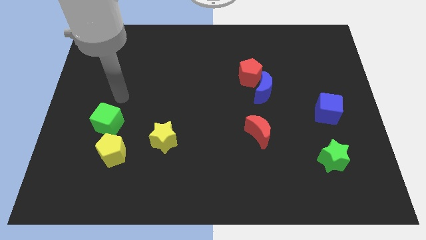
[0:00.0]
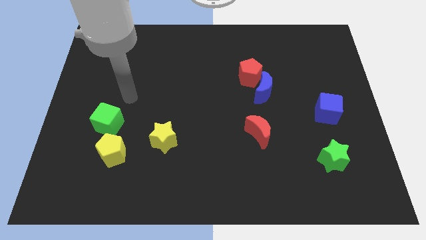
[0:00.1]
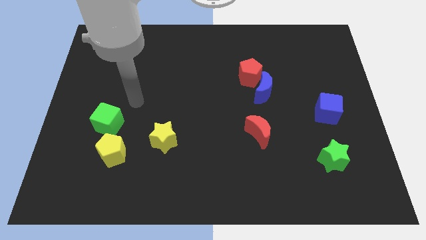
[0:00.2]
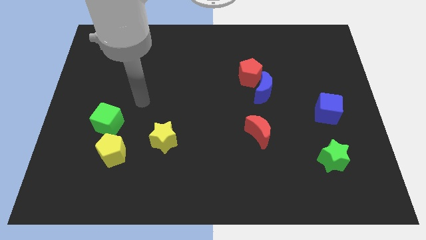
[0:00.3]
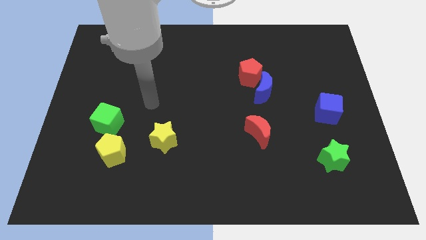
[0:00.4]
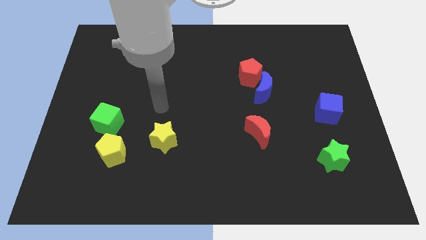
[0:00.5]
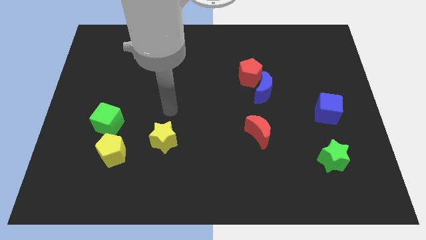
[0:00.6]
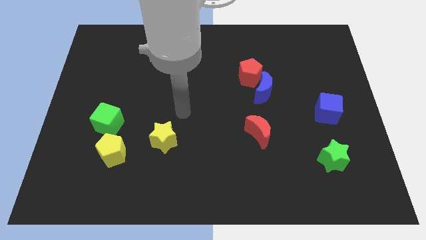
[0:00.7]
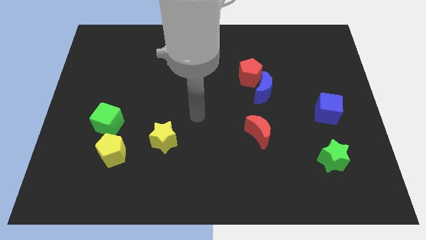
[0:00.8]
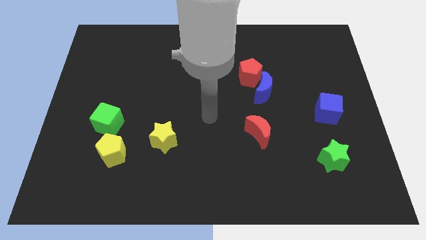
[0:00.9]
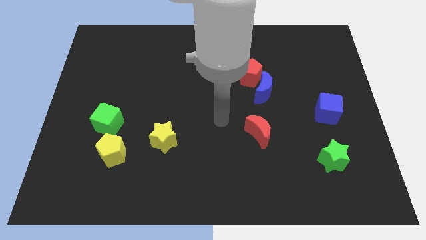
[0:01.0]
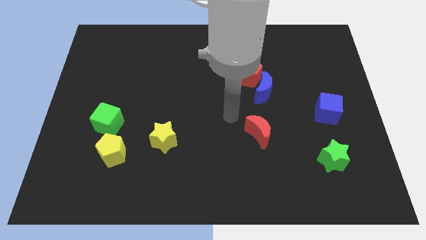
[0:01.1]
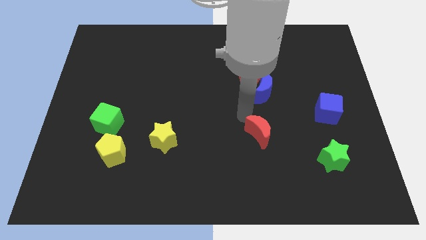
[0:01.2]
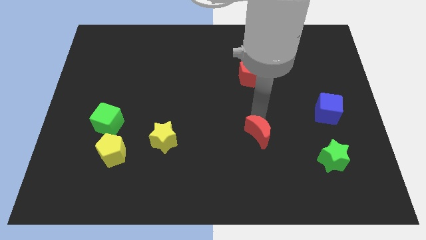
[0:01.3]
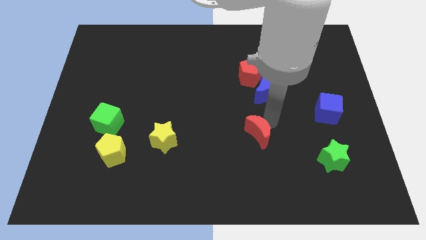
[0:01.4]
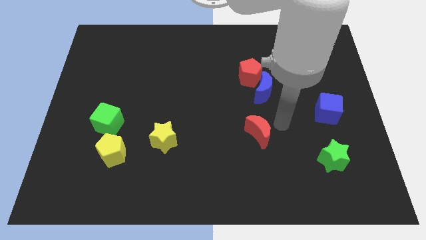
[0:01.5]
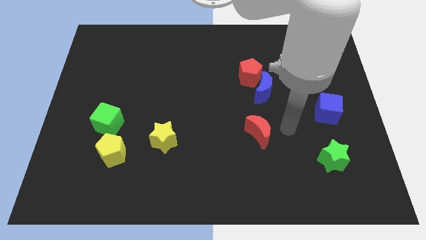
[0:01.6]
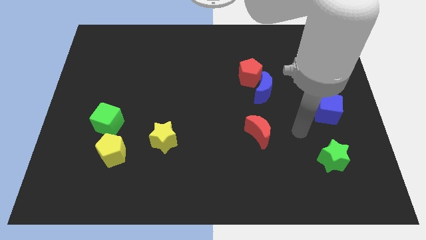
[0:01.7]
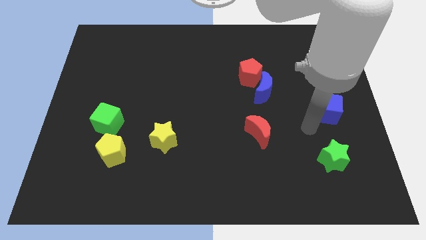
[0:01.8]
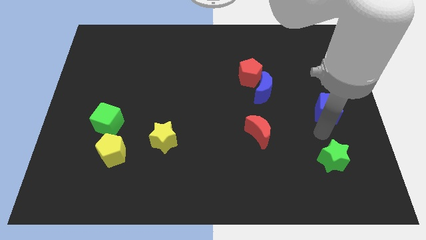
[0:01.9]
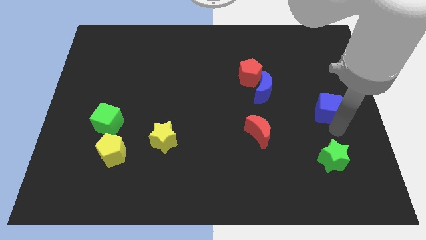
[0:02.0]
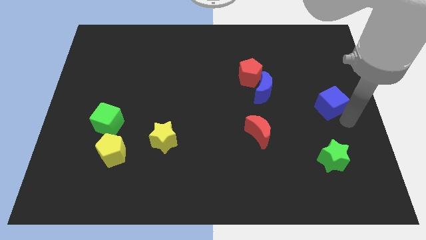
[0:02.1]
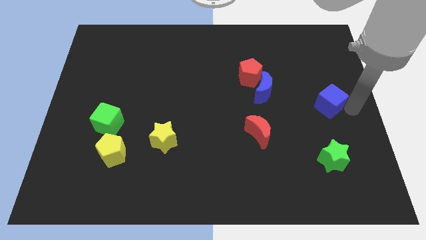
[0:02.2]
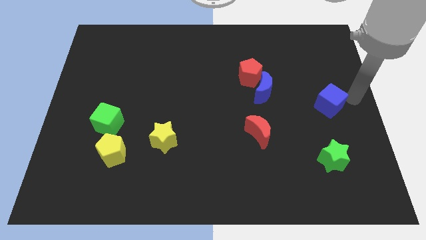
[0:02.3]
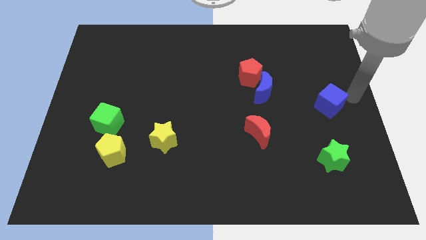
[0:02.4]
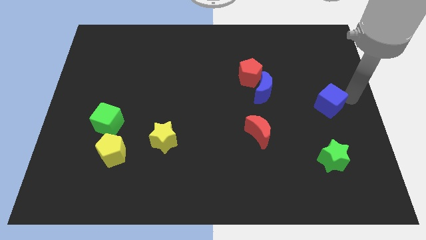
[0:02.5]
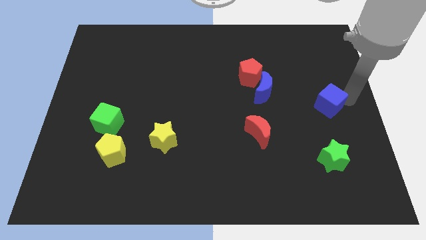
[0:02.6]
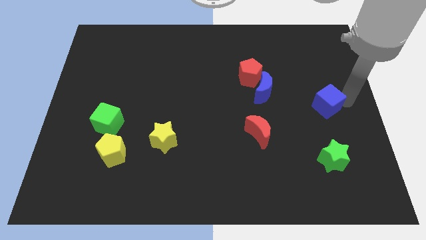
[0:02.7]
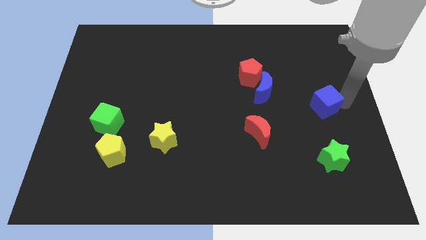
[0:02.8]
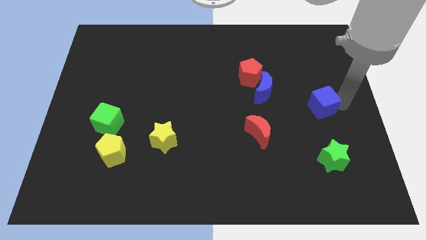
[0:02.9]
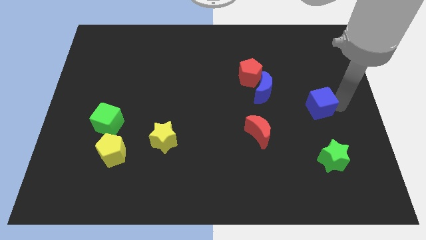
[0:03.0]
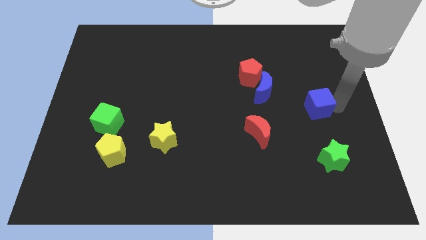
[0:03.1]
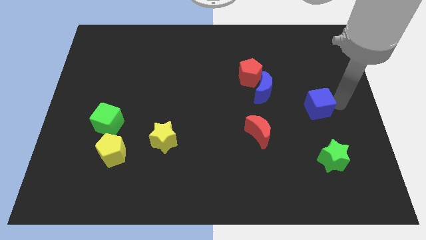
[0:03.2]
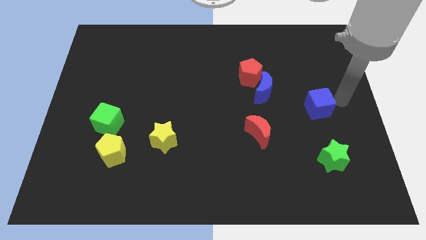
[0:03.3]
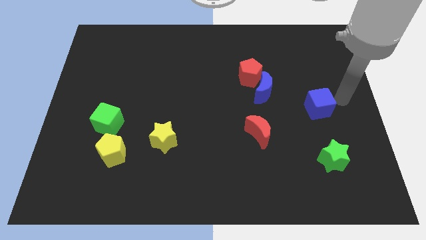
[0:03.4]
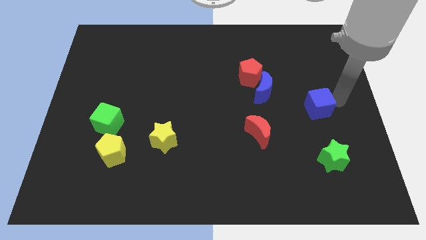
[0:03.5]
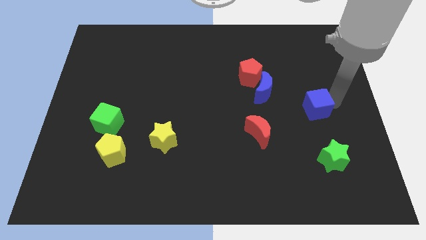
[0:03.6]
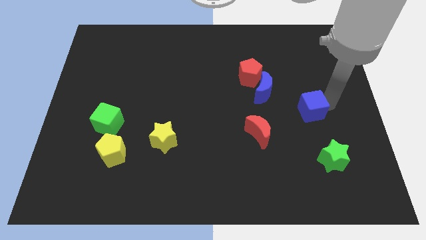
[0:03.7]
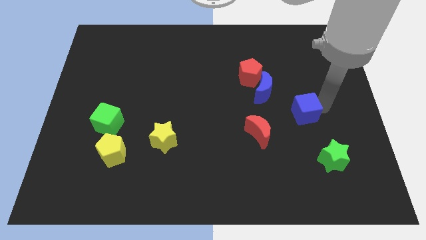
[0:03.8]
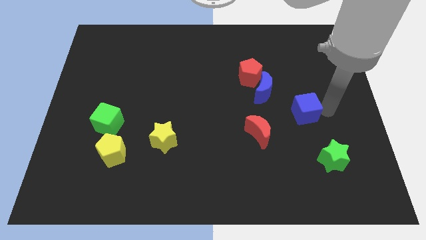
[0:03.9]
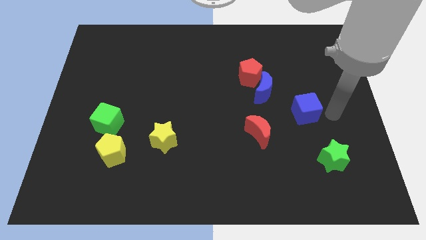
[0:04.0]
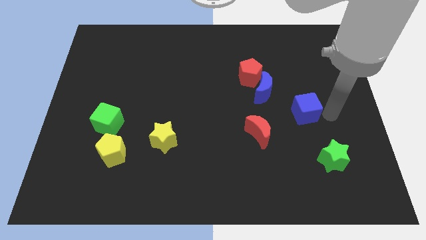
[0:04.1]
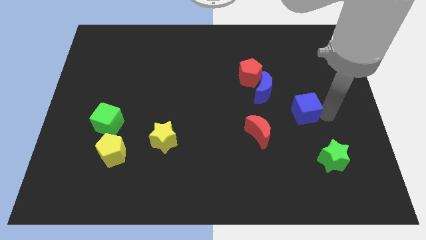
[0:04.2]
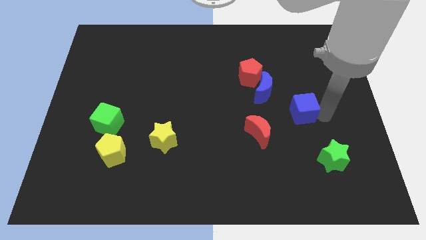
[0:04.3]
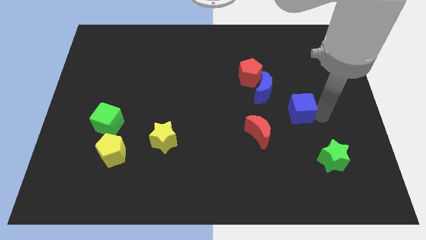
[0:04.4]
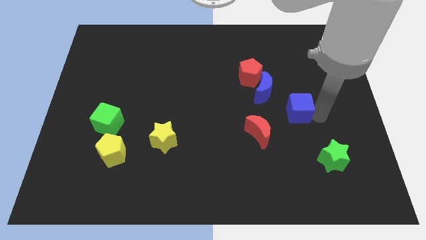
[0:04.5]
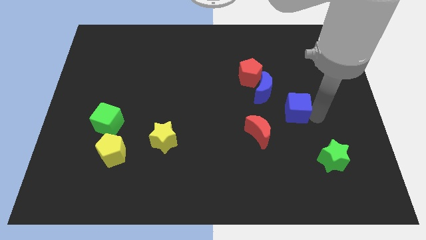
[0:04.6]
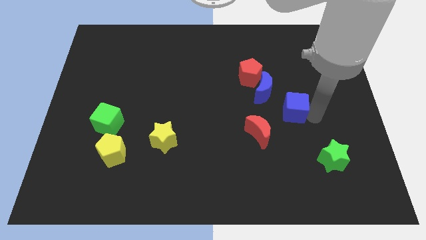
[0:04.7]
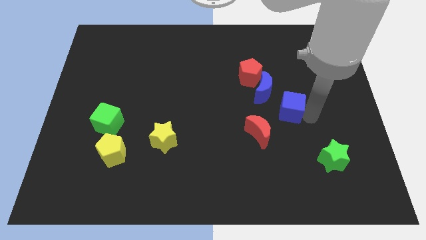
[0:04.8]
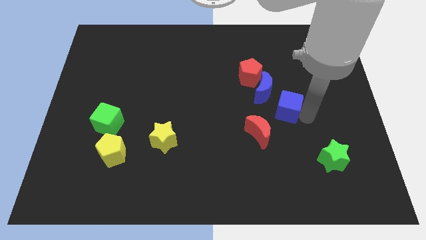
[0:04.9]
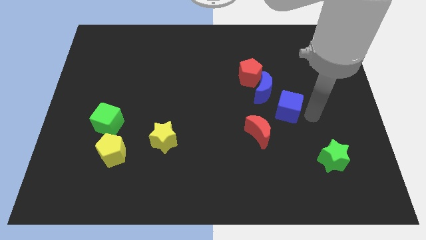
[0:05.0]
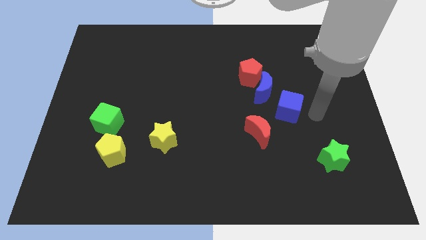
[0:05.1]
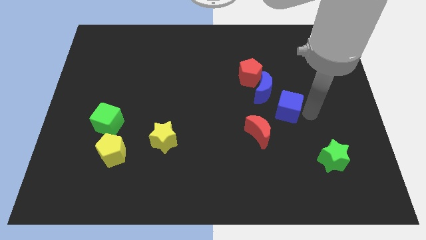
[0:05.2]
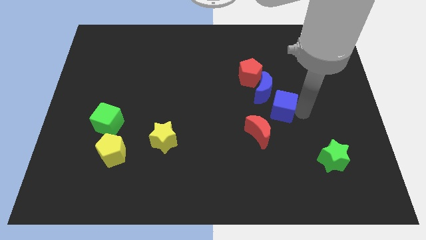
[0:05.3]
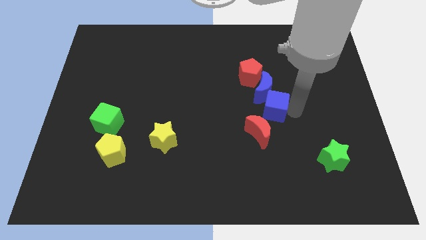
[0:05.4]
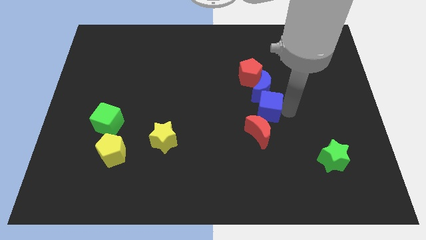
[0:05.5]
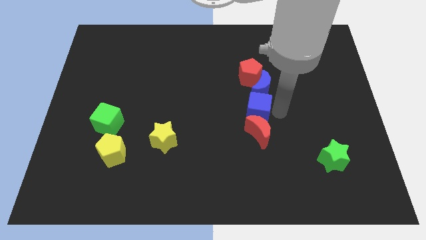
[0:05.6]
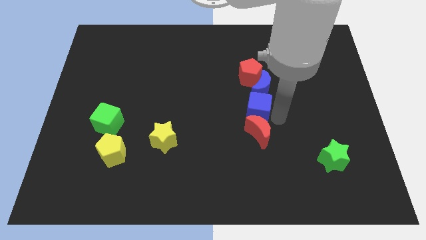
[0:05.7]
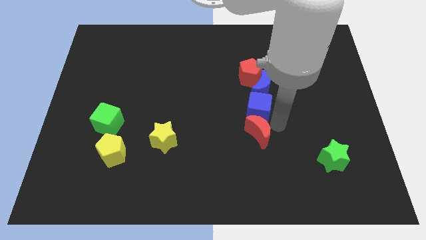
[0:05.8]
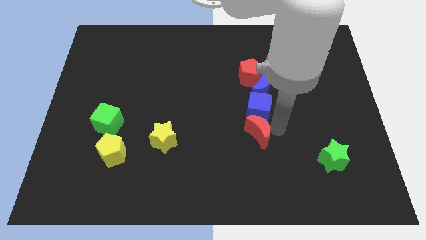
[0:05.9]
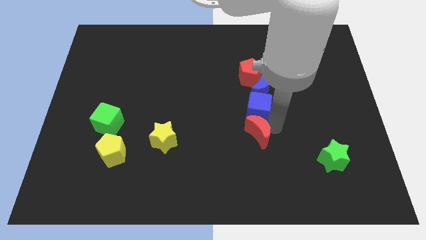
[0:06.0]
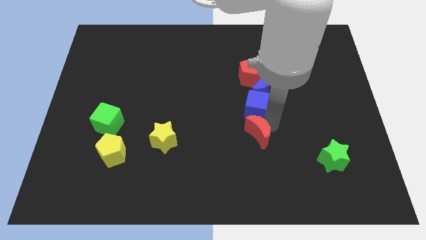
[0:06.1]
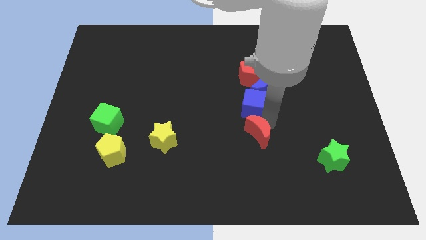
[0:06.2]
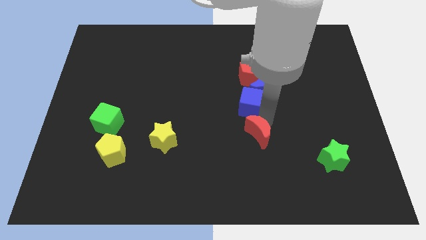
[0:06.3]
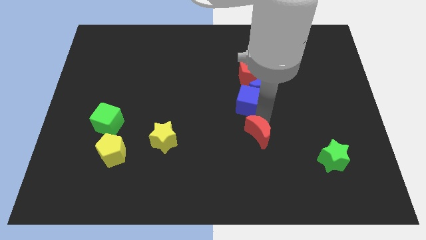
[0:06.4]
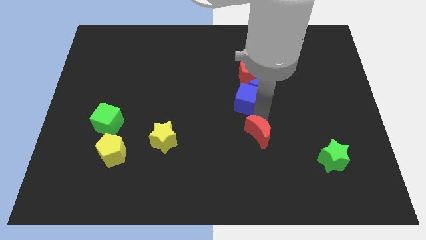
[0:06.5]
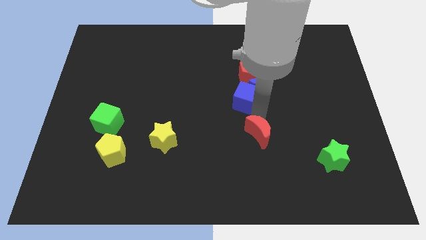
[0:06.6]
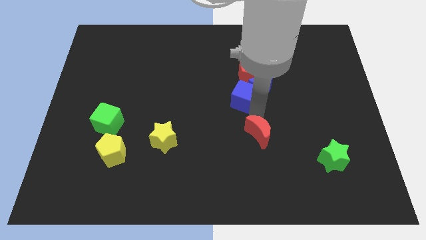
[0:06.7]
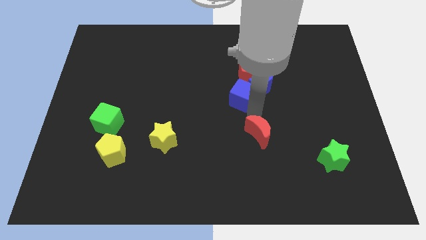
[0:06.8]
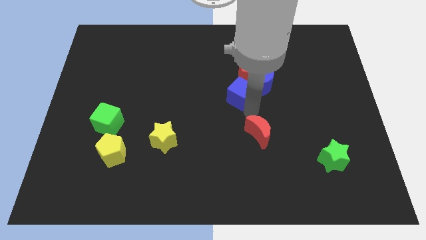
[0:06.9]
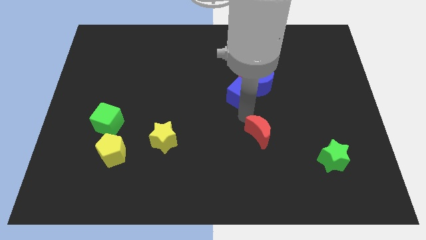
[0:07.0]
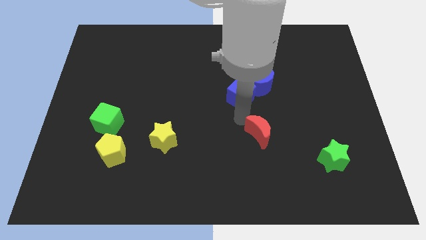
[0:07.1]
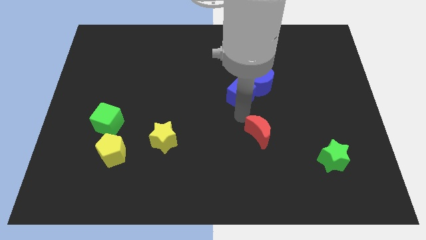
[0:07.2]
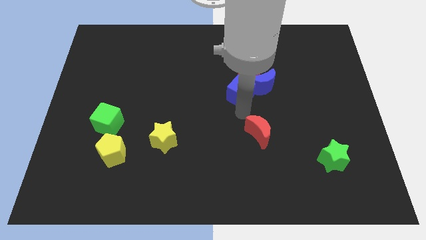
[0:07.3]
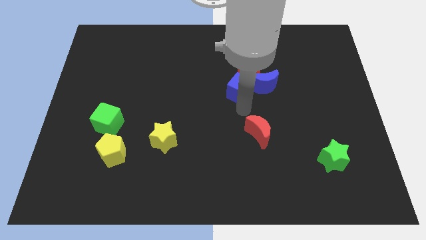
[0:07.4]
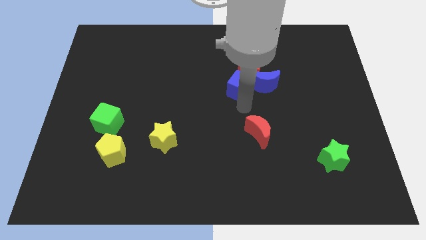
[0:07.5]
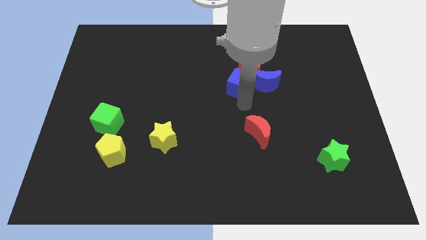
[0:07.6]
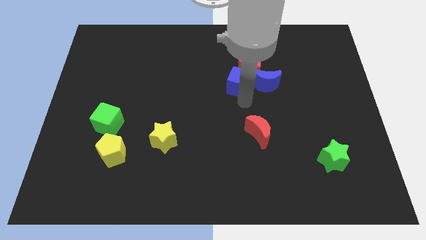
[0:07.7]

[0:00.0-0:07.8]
put the blue cube to the top left side of the blue moon
